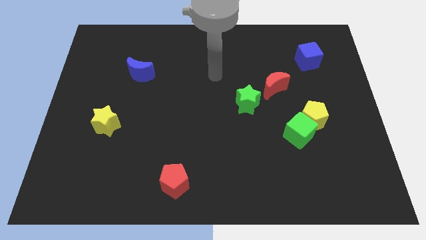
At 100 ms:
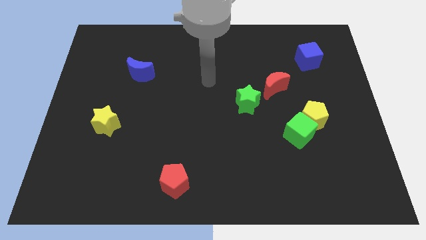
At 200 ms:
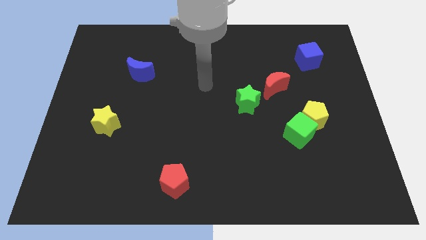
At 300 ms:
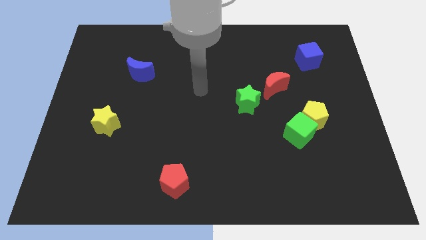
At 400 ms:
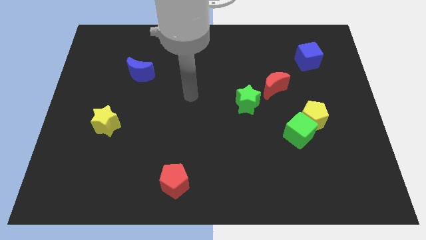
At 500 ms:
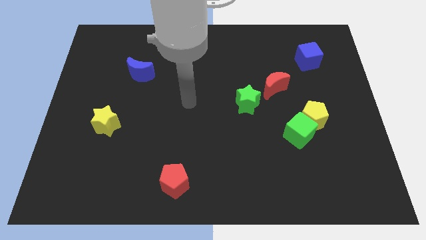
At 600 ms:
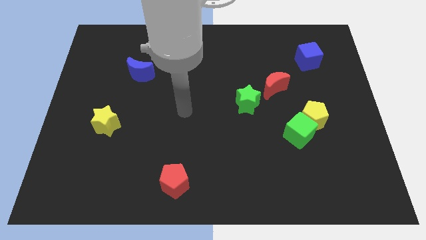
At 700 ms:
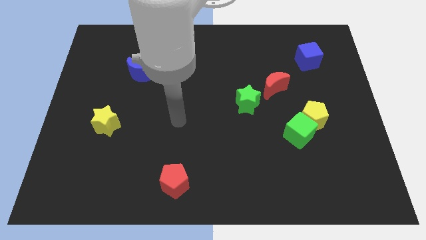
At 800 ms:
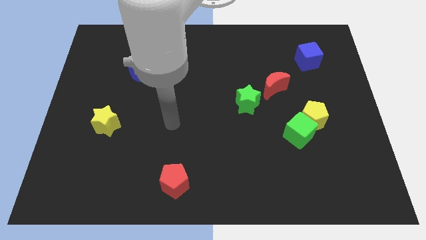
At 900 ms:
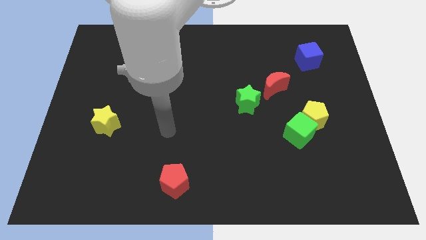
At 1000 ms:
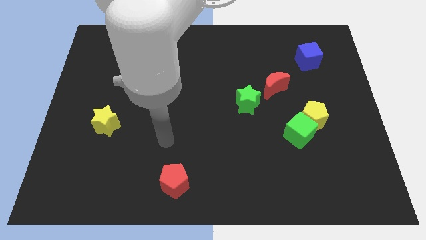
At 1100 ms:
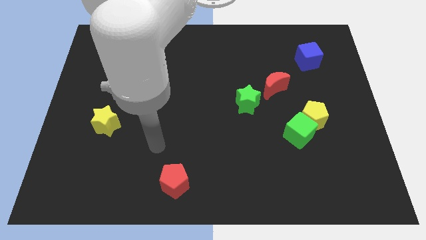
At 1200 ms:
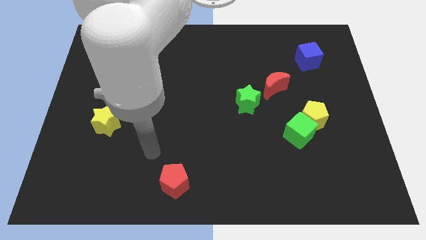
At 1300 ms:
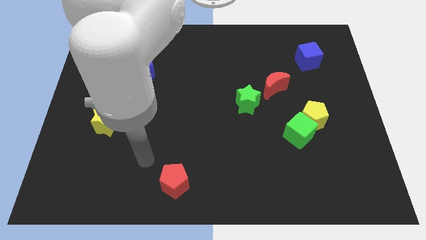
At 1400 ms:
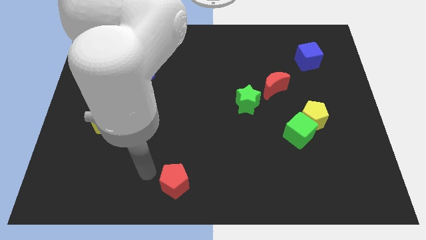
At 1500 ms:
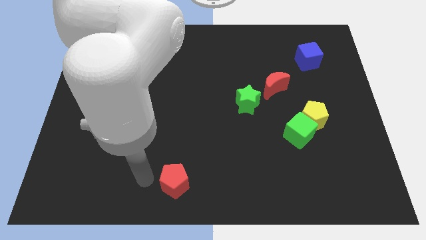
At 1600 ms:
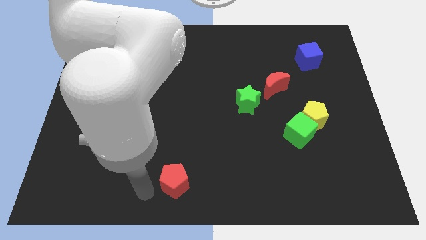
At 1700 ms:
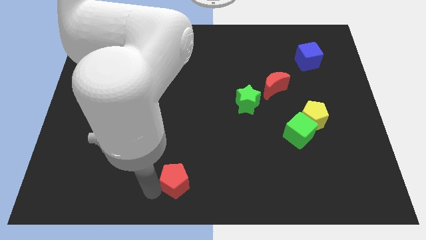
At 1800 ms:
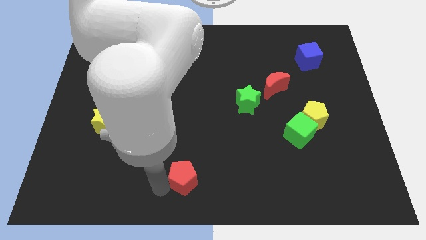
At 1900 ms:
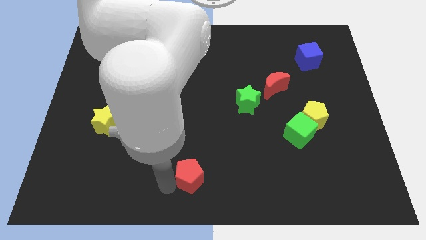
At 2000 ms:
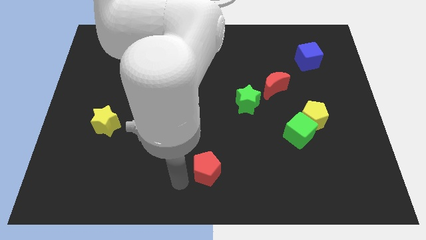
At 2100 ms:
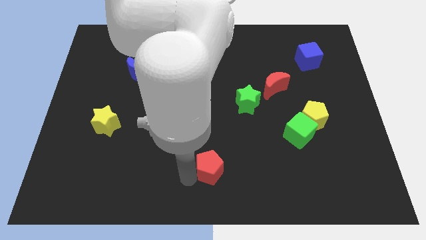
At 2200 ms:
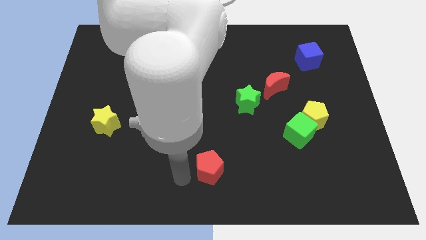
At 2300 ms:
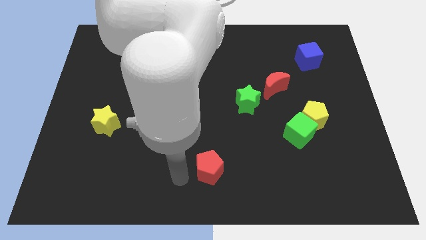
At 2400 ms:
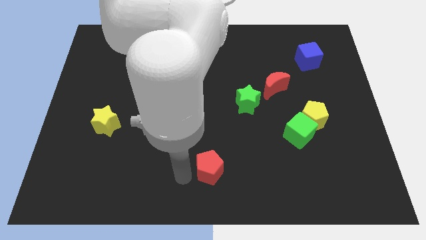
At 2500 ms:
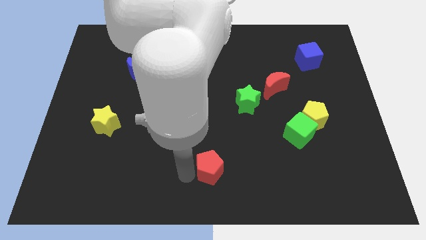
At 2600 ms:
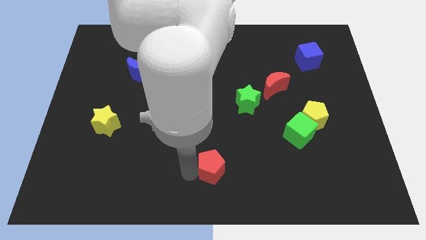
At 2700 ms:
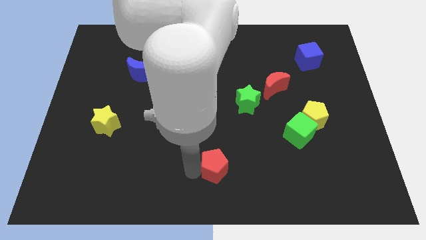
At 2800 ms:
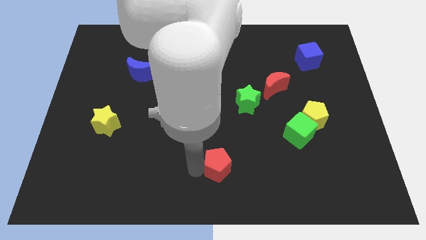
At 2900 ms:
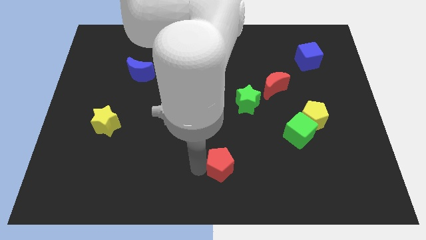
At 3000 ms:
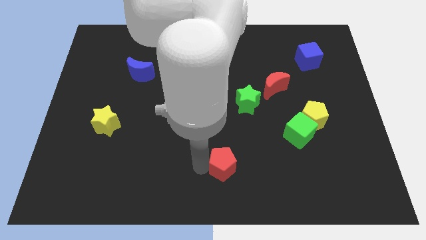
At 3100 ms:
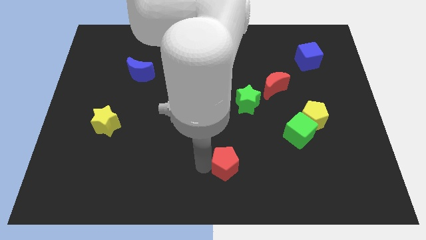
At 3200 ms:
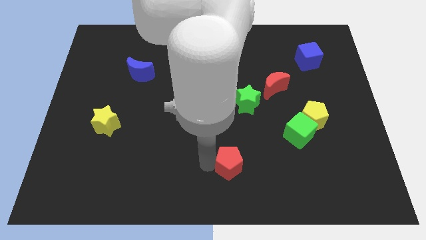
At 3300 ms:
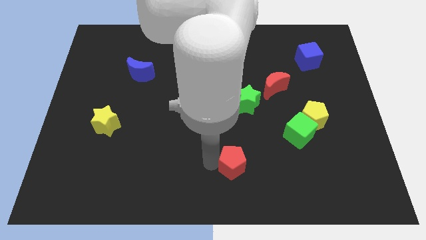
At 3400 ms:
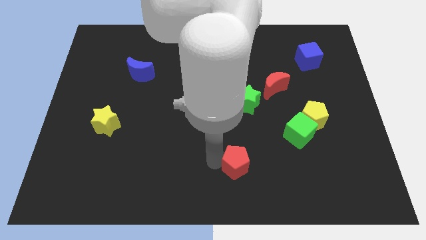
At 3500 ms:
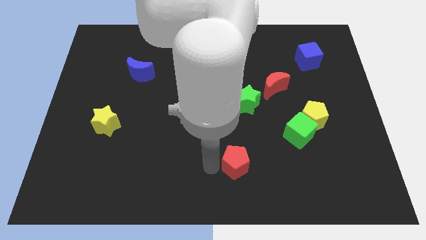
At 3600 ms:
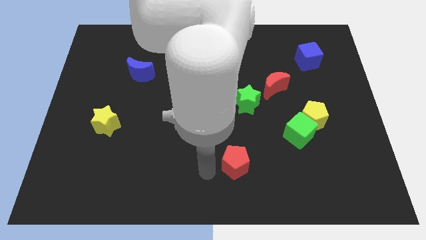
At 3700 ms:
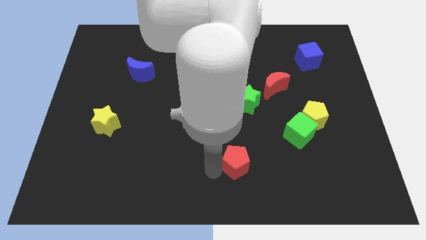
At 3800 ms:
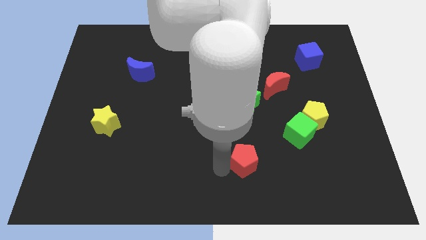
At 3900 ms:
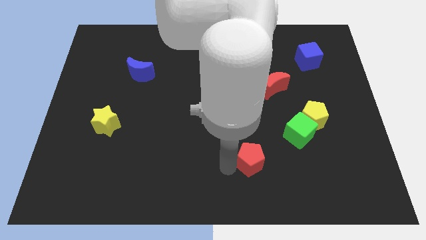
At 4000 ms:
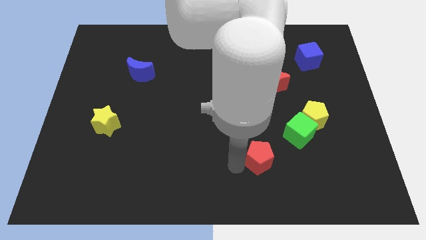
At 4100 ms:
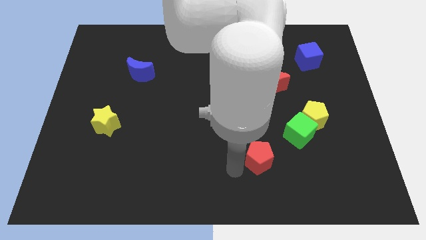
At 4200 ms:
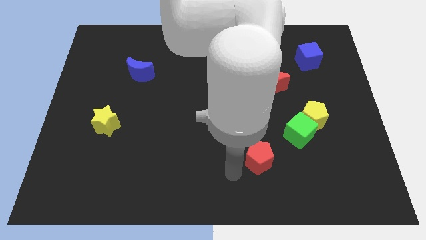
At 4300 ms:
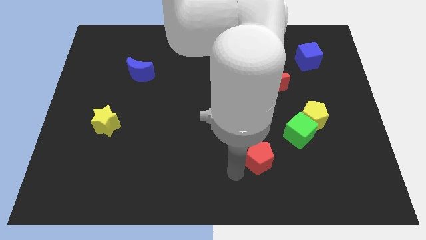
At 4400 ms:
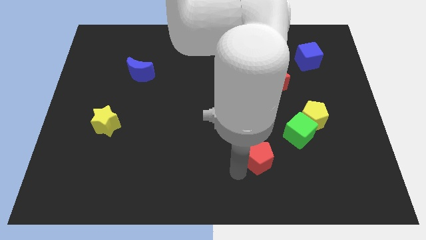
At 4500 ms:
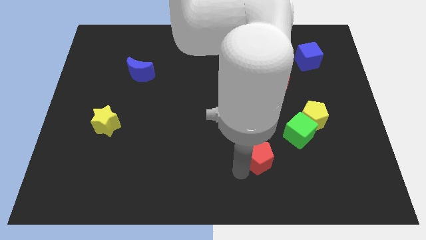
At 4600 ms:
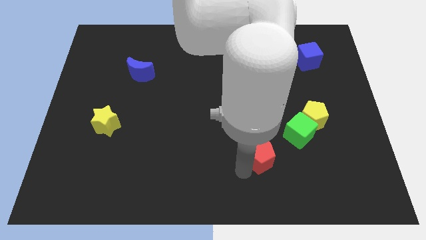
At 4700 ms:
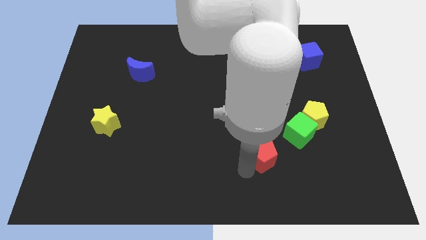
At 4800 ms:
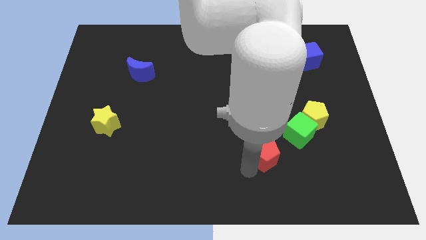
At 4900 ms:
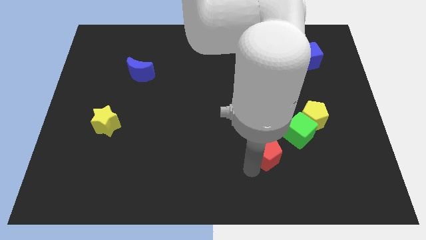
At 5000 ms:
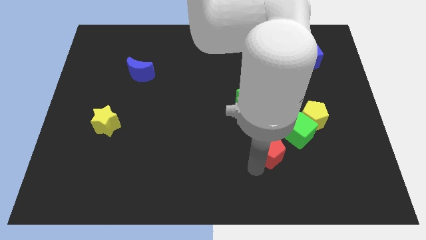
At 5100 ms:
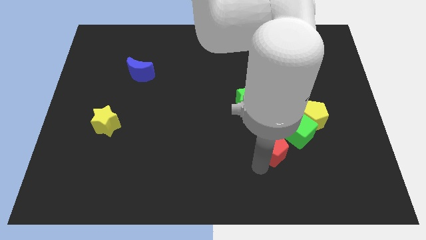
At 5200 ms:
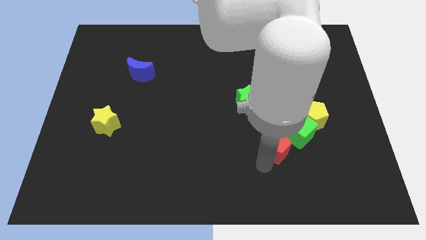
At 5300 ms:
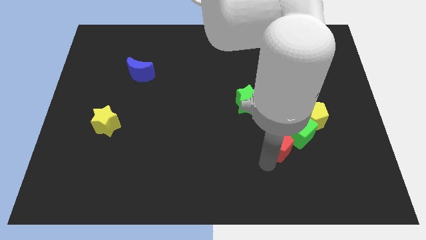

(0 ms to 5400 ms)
move the red pentagon towards the green cube

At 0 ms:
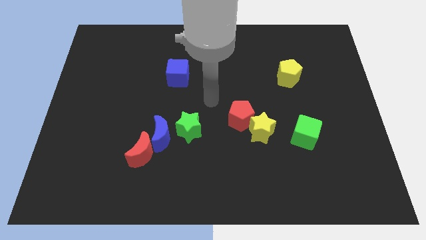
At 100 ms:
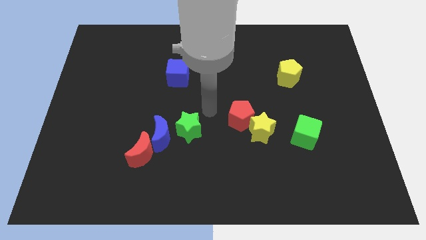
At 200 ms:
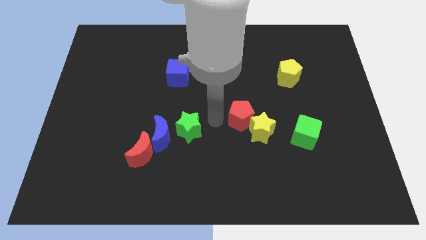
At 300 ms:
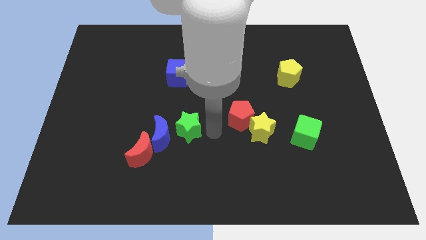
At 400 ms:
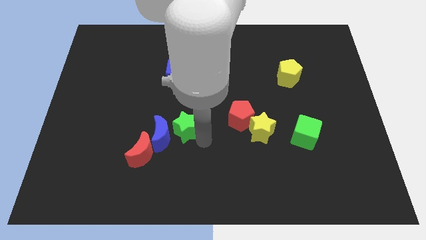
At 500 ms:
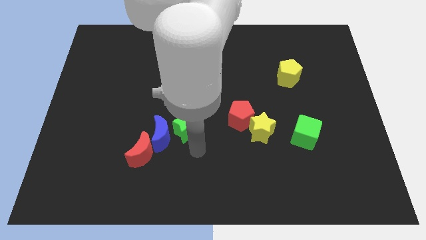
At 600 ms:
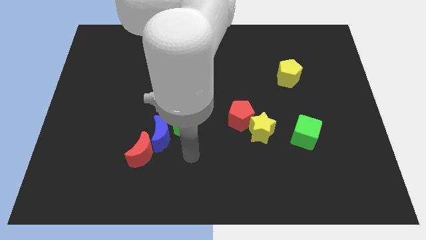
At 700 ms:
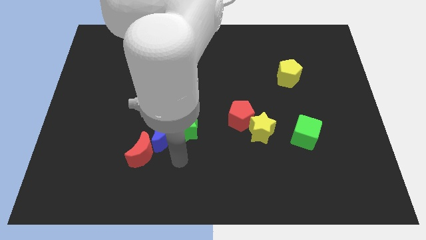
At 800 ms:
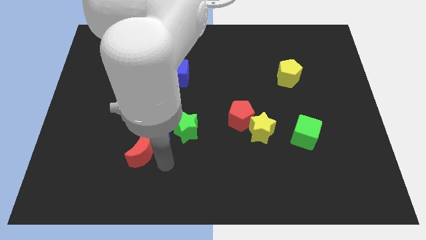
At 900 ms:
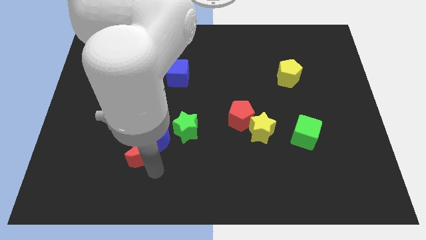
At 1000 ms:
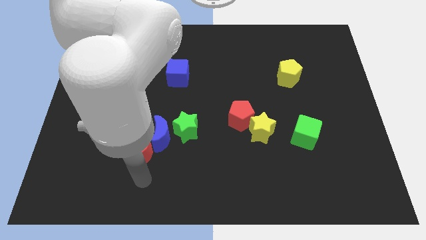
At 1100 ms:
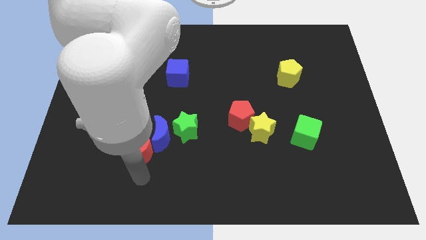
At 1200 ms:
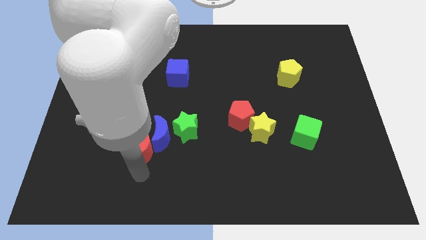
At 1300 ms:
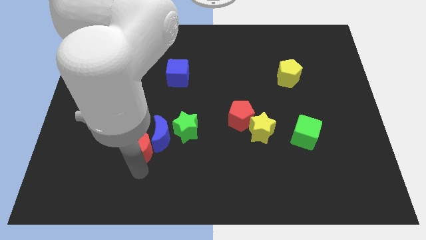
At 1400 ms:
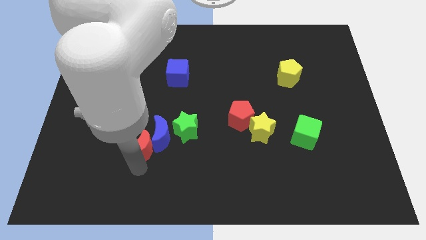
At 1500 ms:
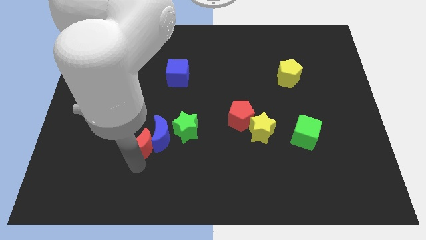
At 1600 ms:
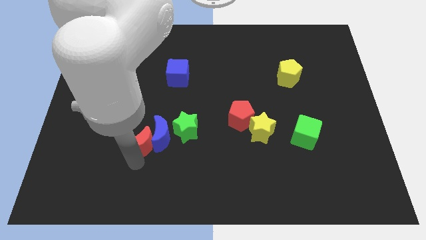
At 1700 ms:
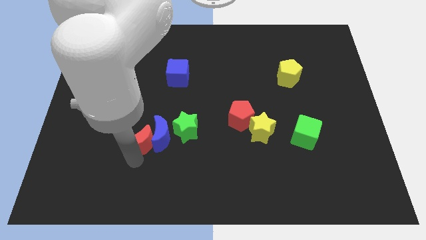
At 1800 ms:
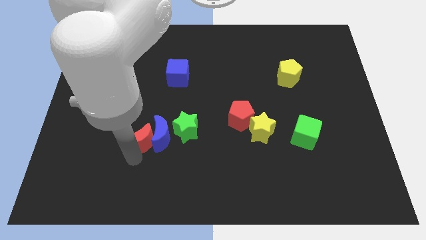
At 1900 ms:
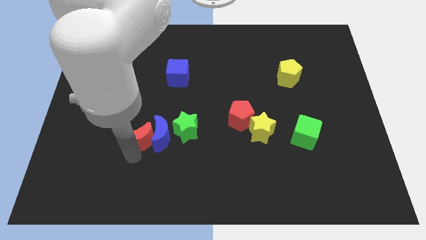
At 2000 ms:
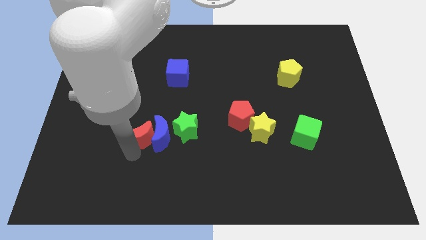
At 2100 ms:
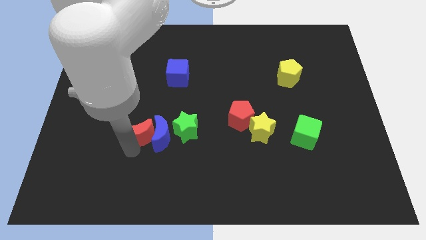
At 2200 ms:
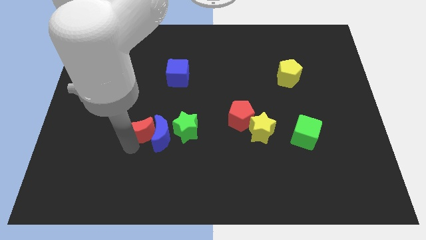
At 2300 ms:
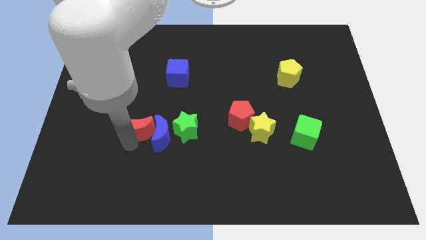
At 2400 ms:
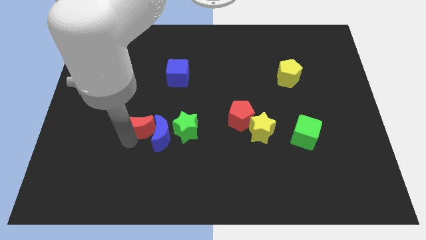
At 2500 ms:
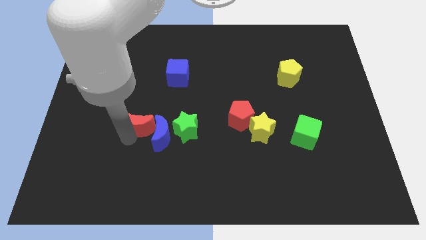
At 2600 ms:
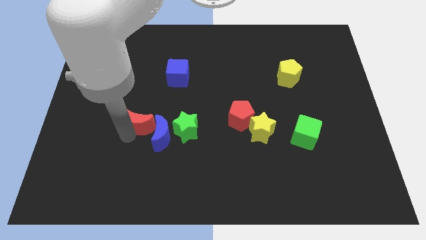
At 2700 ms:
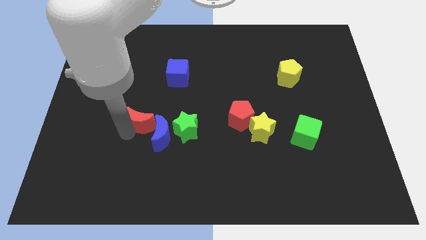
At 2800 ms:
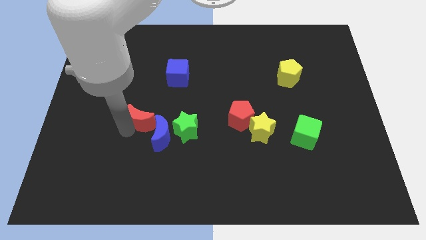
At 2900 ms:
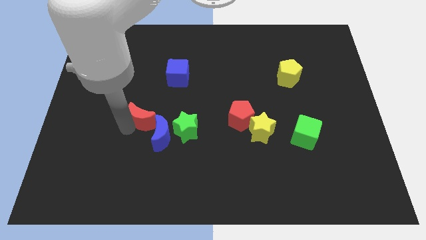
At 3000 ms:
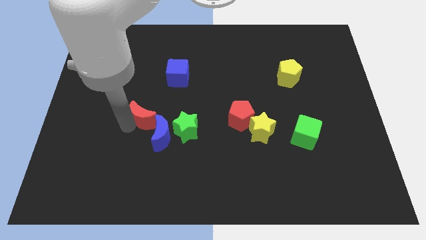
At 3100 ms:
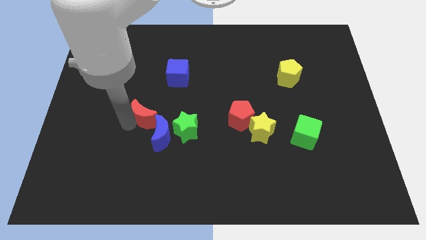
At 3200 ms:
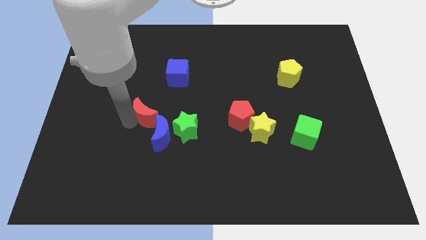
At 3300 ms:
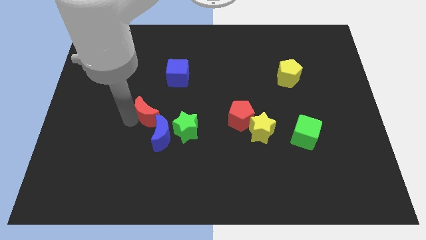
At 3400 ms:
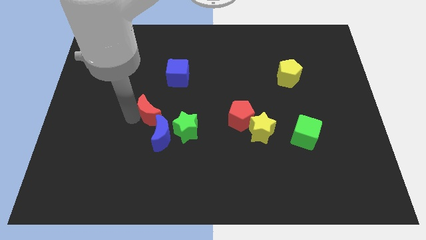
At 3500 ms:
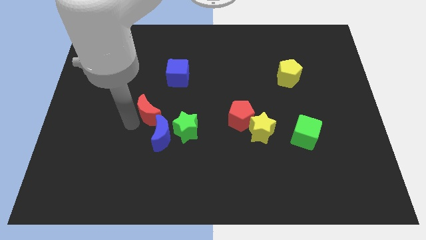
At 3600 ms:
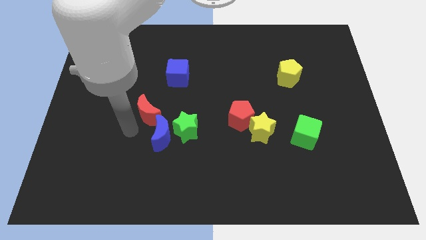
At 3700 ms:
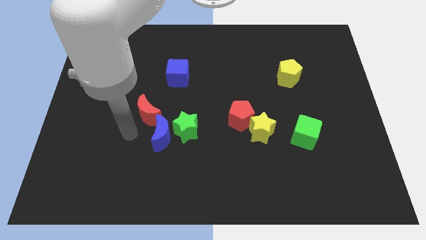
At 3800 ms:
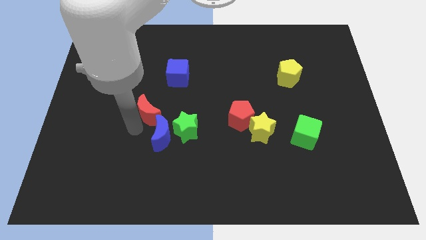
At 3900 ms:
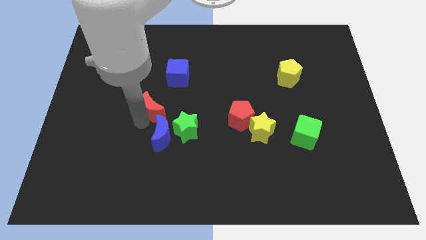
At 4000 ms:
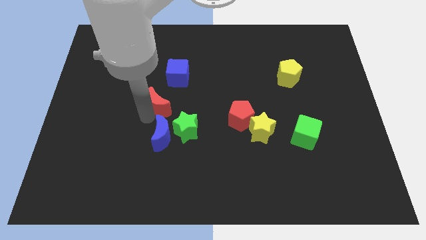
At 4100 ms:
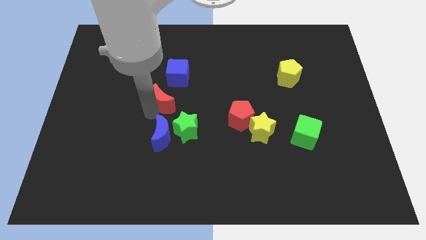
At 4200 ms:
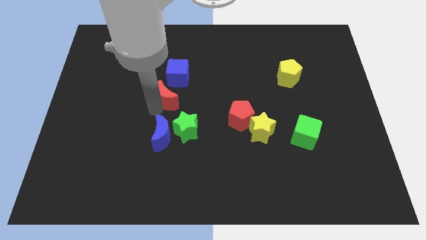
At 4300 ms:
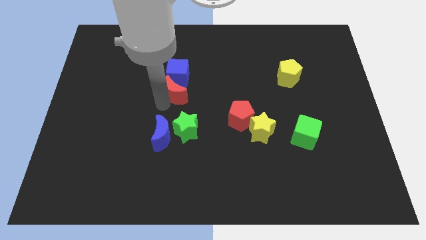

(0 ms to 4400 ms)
move the red moon towards the blue cube
